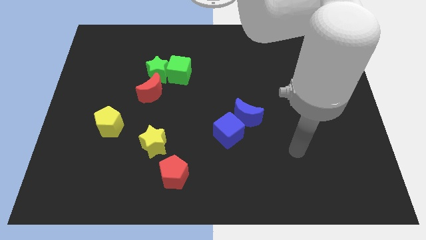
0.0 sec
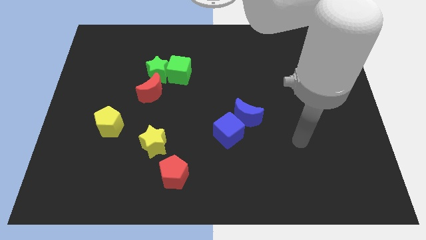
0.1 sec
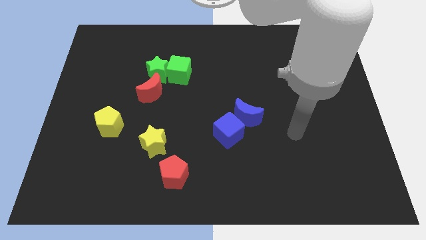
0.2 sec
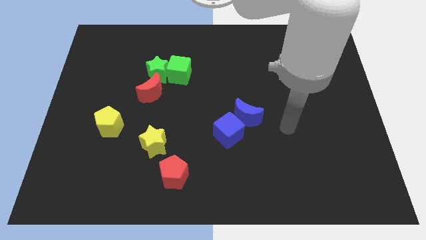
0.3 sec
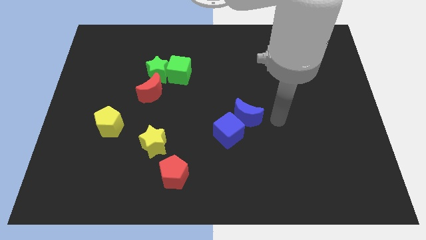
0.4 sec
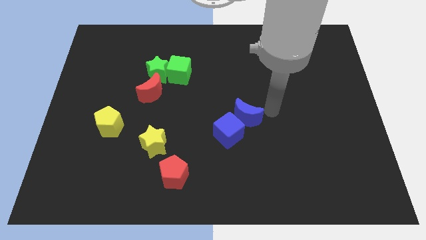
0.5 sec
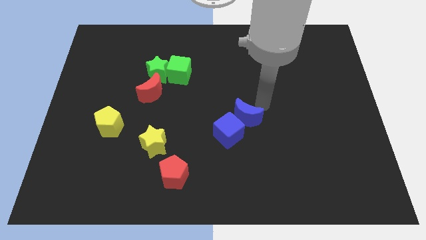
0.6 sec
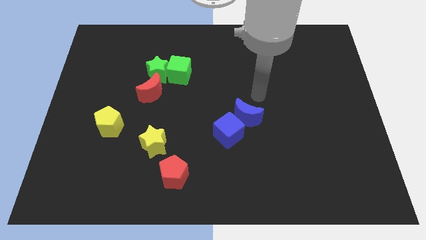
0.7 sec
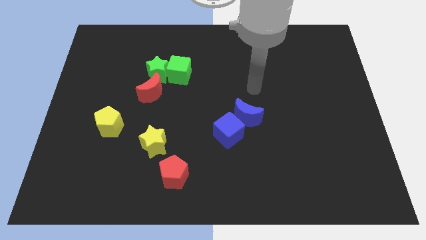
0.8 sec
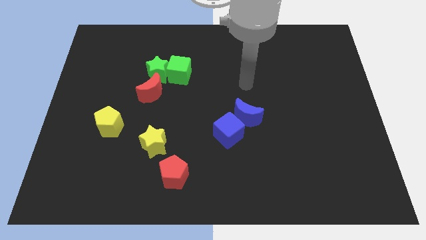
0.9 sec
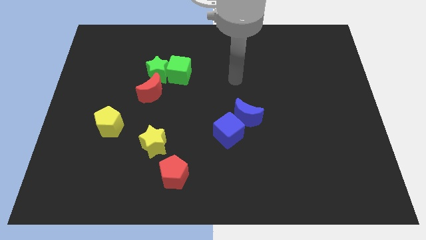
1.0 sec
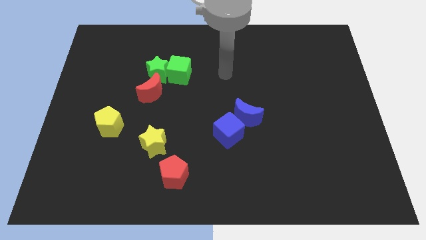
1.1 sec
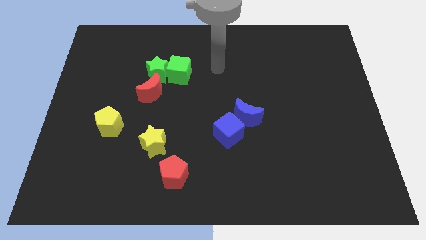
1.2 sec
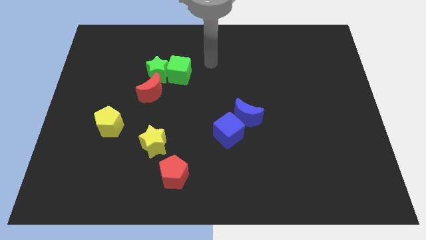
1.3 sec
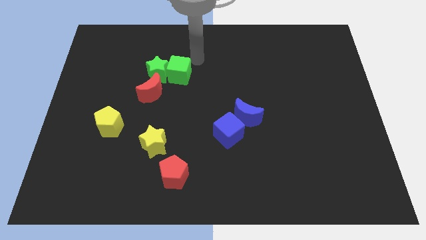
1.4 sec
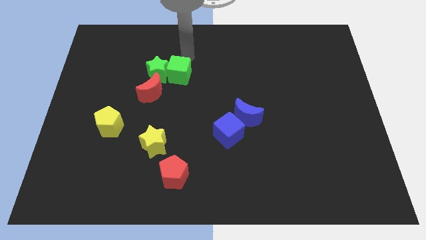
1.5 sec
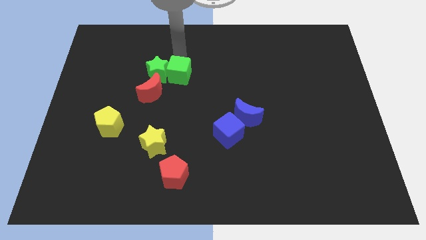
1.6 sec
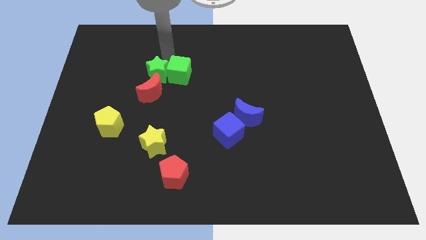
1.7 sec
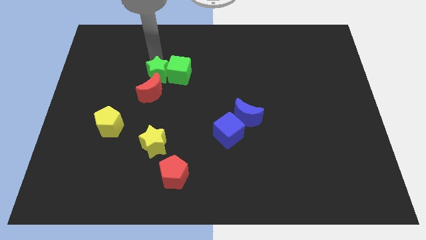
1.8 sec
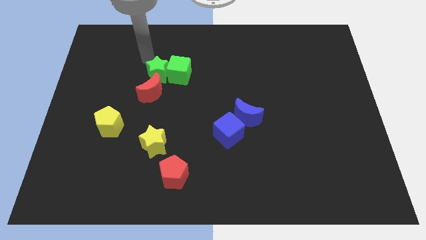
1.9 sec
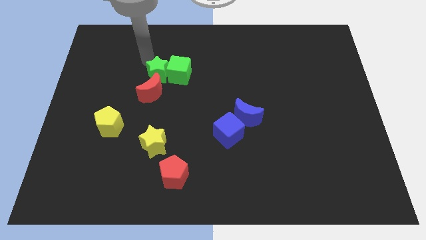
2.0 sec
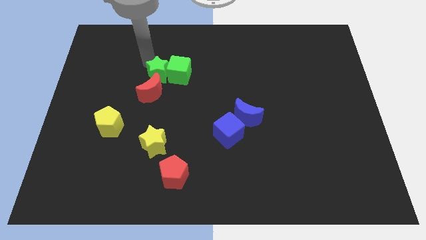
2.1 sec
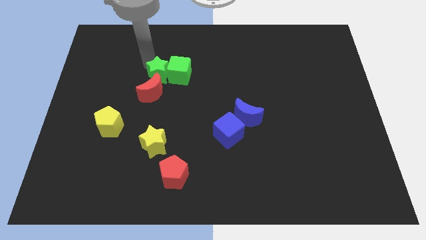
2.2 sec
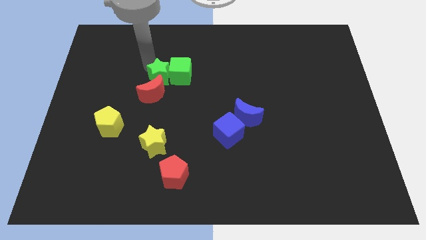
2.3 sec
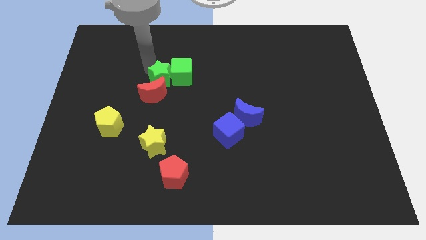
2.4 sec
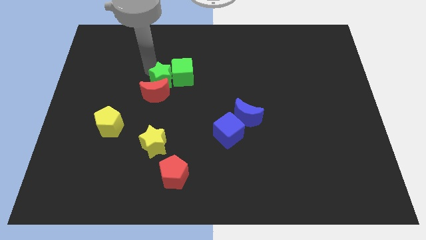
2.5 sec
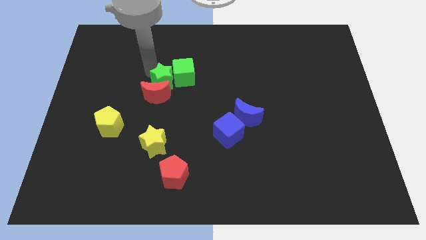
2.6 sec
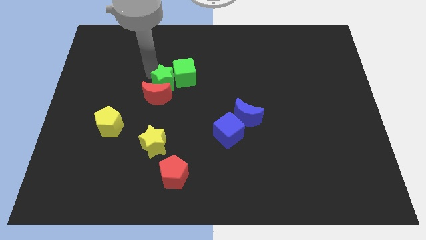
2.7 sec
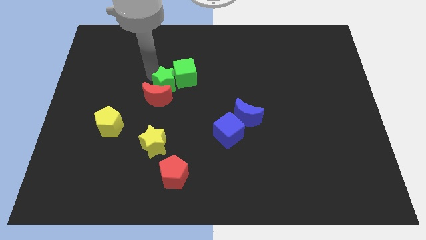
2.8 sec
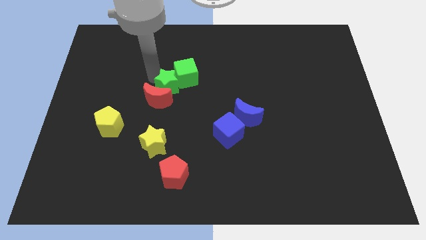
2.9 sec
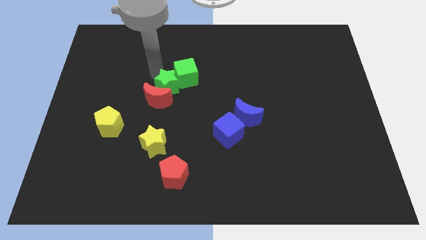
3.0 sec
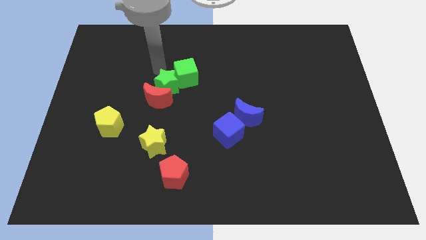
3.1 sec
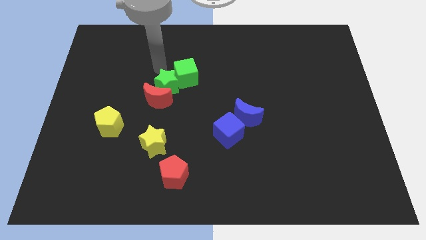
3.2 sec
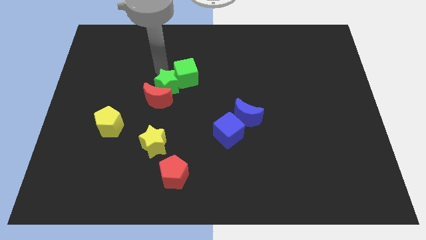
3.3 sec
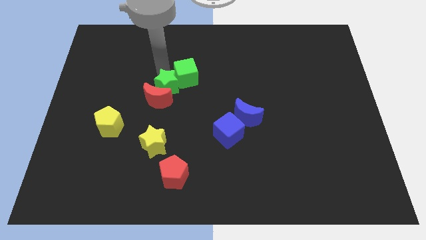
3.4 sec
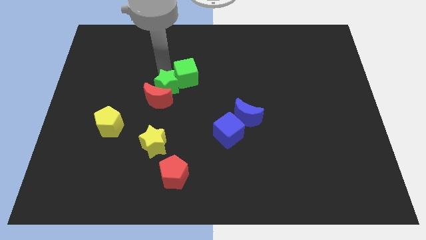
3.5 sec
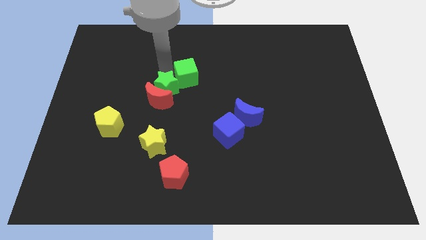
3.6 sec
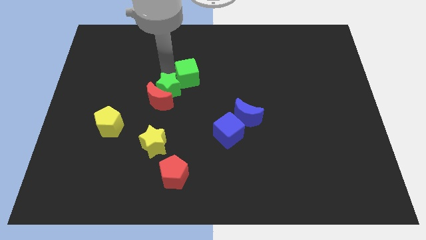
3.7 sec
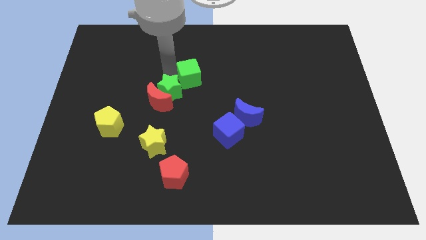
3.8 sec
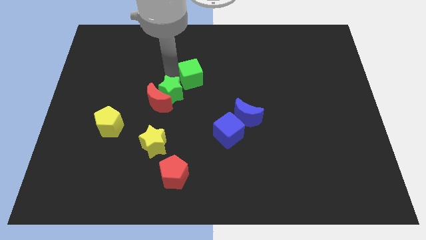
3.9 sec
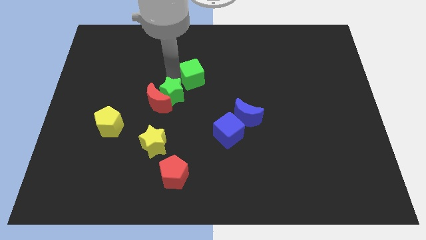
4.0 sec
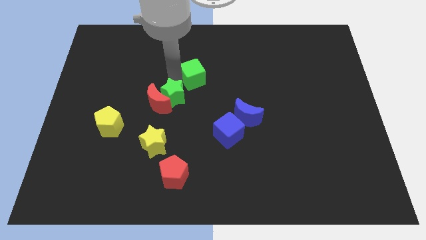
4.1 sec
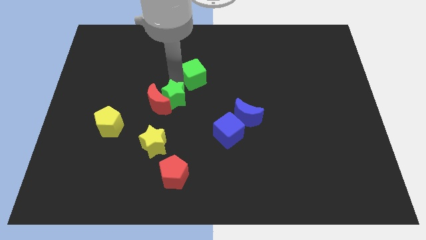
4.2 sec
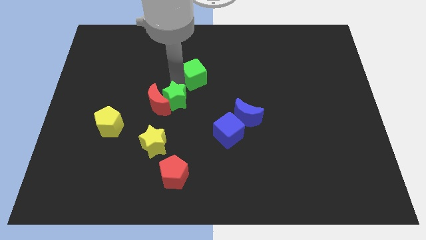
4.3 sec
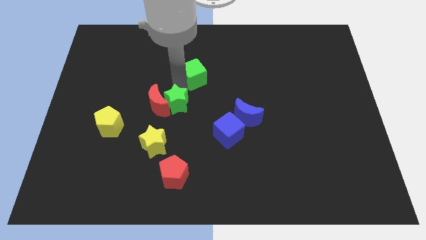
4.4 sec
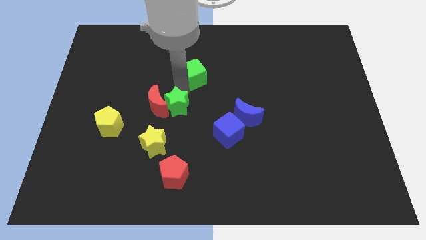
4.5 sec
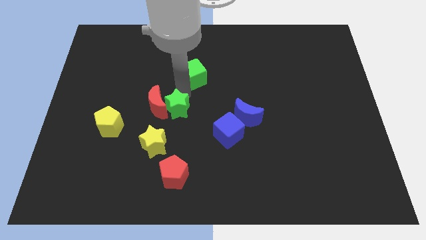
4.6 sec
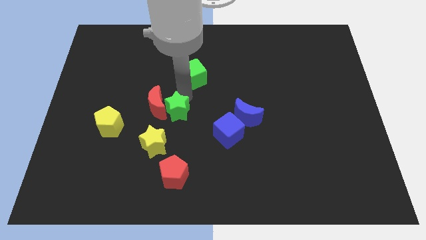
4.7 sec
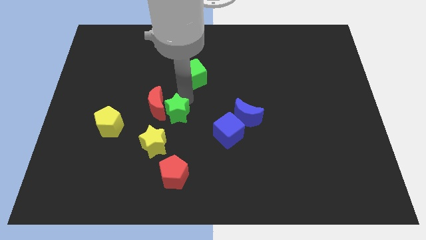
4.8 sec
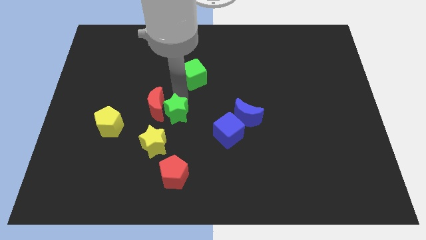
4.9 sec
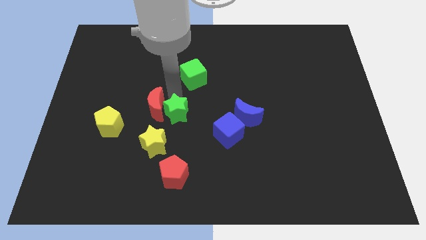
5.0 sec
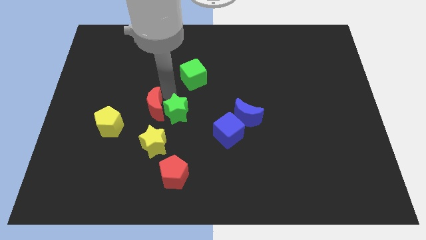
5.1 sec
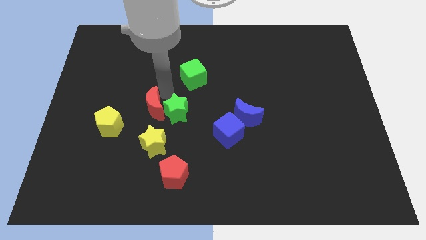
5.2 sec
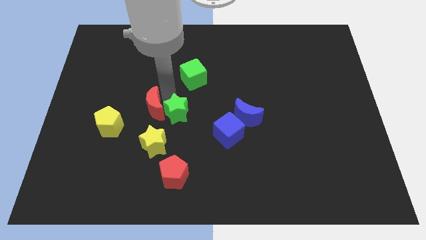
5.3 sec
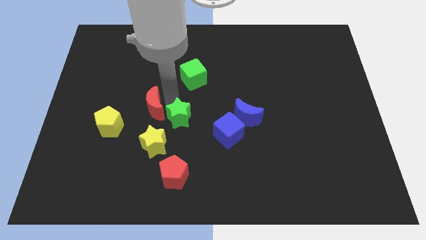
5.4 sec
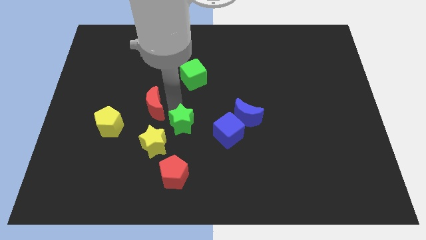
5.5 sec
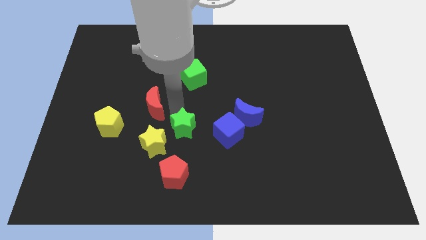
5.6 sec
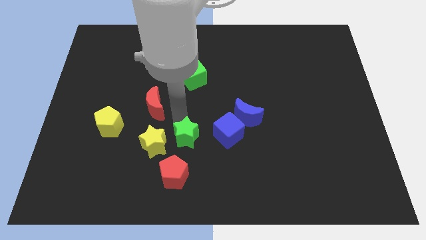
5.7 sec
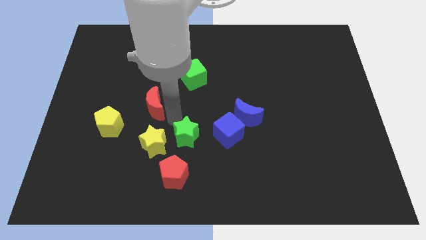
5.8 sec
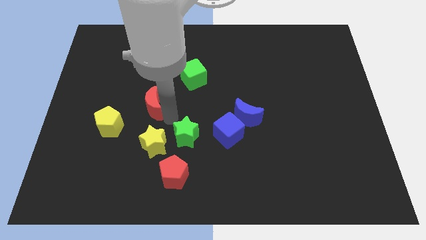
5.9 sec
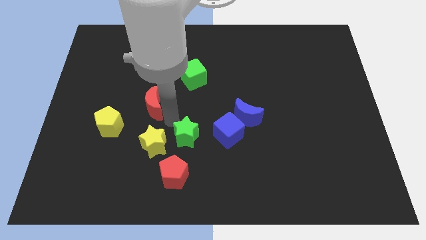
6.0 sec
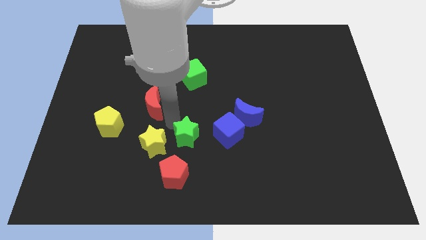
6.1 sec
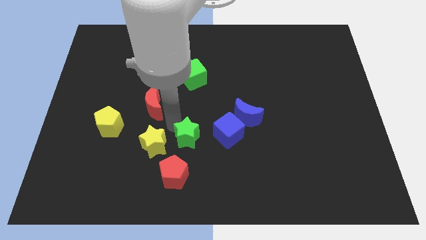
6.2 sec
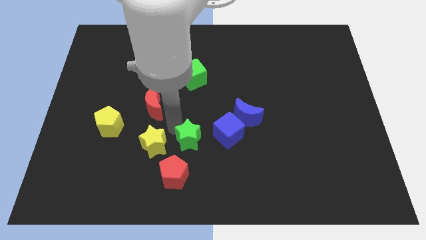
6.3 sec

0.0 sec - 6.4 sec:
put the green star diagonally down and to the left of the blue cube

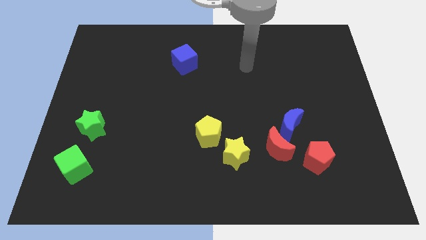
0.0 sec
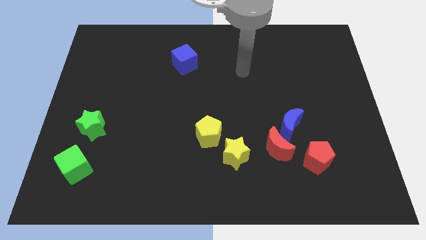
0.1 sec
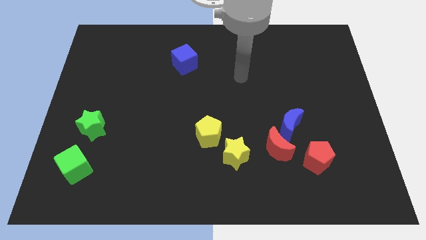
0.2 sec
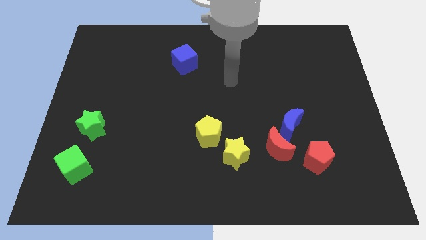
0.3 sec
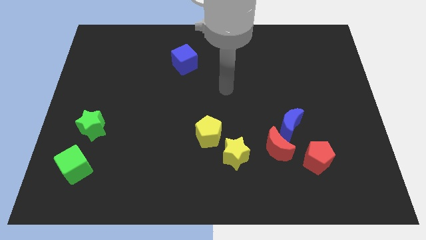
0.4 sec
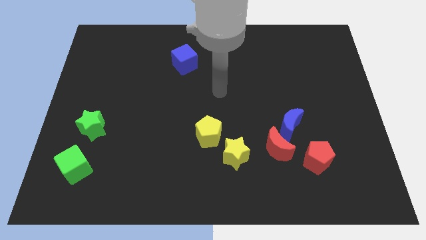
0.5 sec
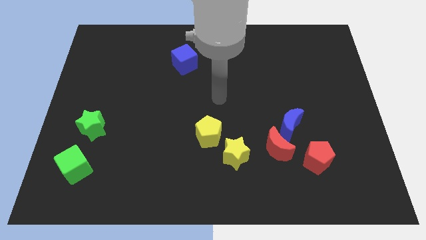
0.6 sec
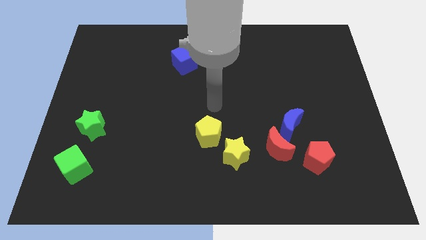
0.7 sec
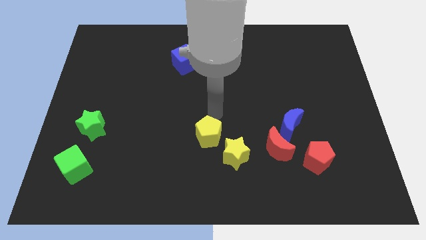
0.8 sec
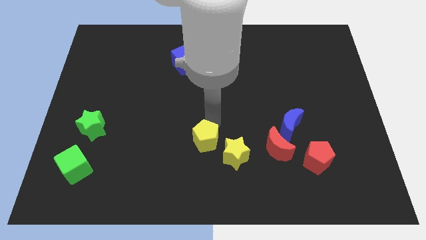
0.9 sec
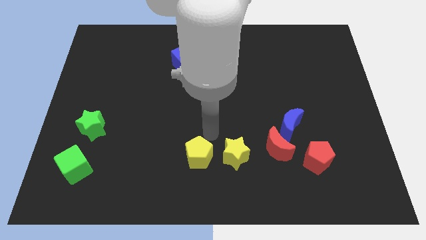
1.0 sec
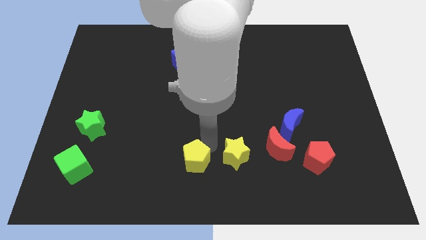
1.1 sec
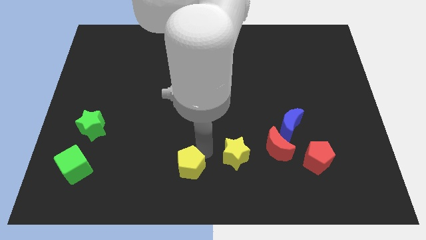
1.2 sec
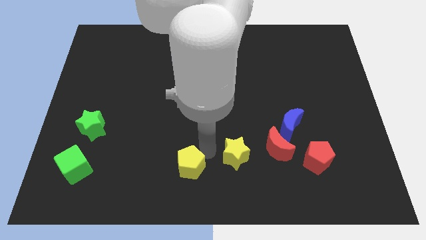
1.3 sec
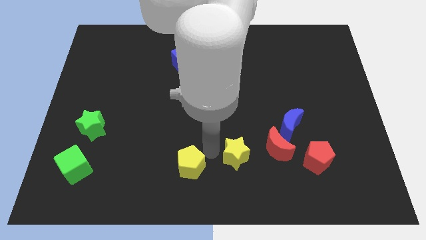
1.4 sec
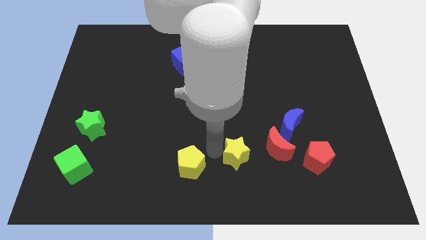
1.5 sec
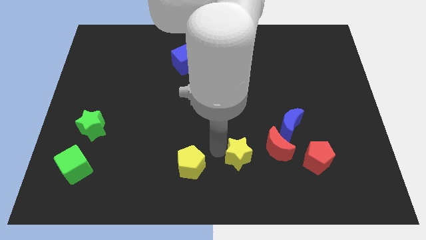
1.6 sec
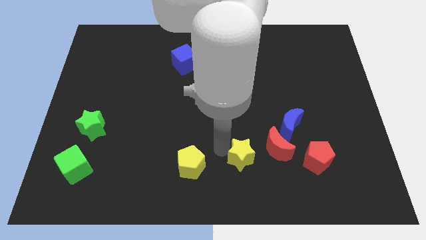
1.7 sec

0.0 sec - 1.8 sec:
push the yellow star to the left of the red pentagon
